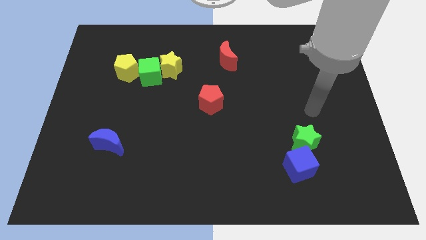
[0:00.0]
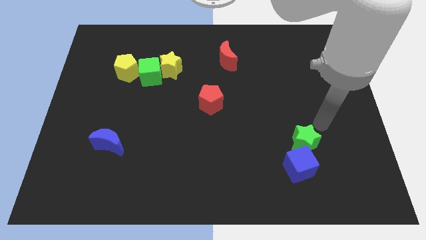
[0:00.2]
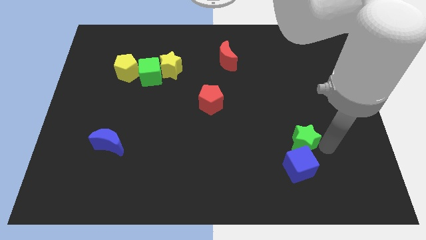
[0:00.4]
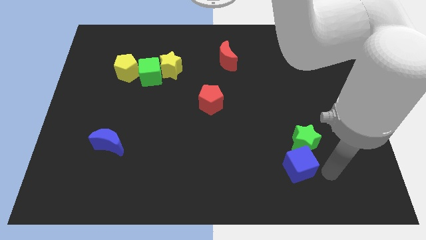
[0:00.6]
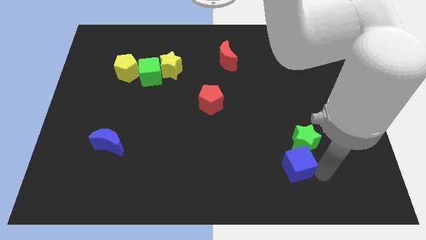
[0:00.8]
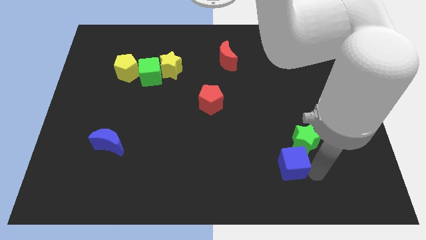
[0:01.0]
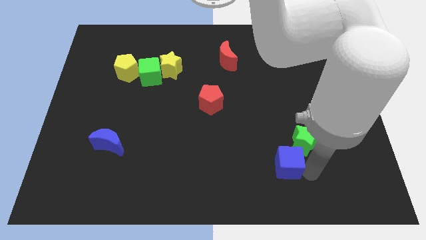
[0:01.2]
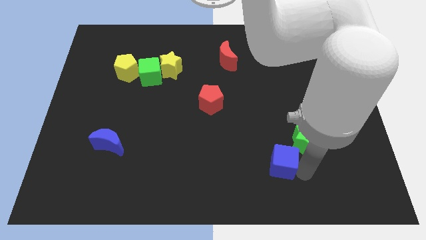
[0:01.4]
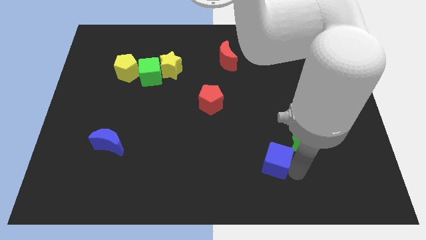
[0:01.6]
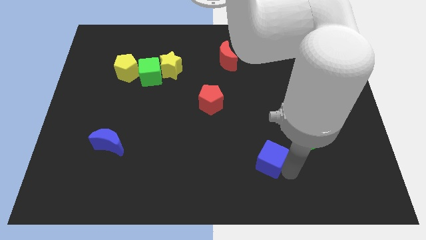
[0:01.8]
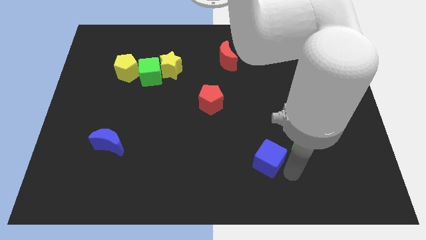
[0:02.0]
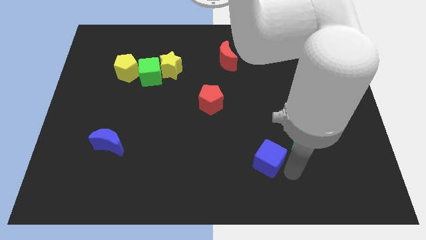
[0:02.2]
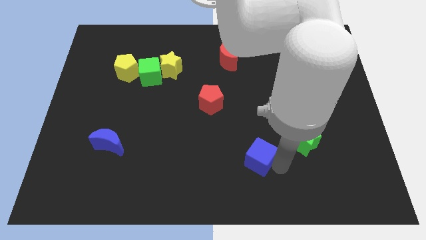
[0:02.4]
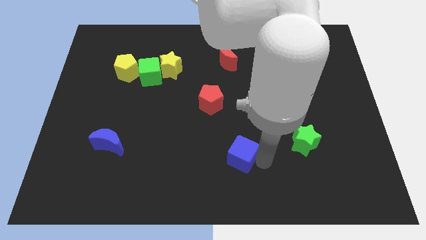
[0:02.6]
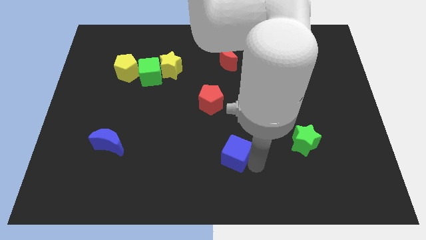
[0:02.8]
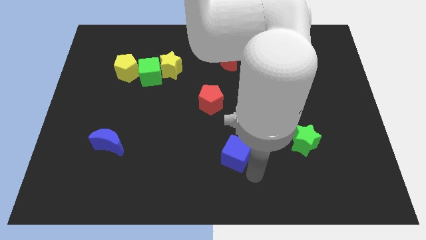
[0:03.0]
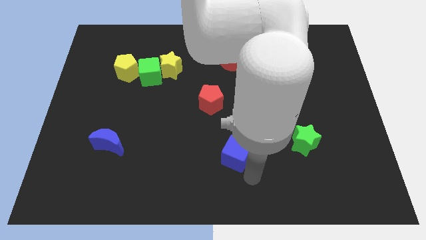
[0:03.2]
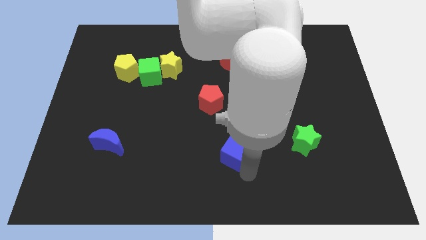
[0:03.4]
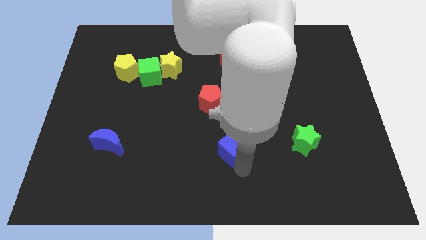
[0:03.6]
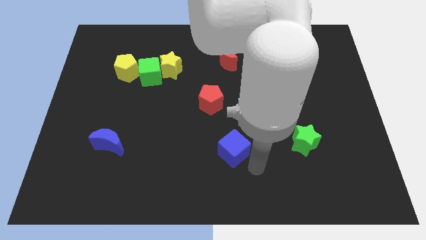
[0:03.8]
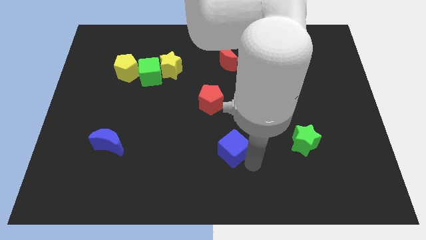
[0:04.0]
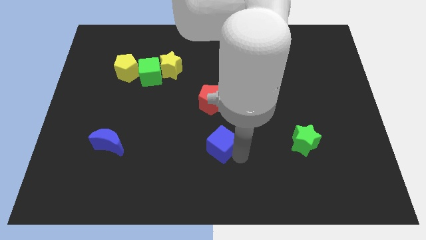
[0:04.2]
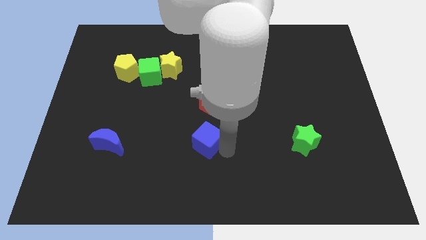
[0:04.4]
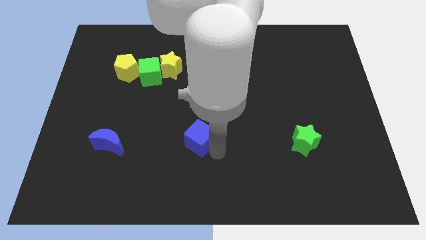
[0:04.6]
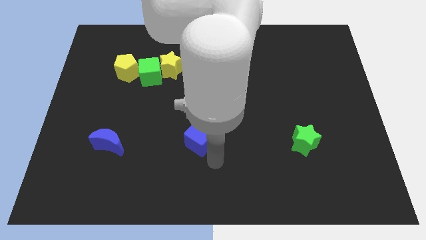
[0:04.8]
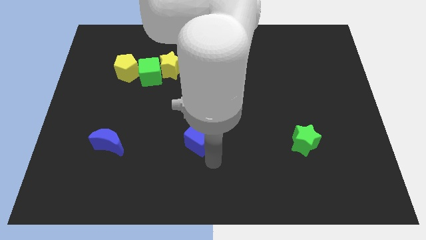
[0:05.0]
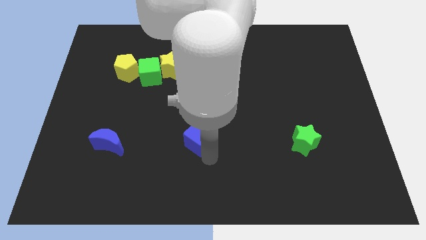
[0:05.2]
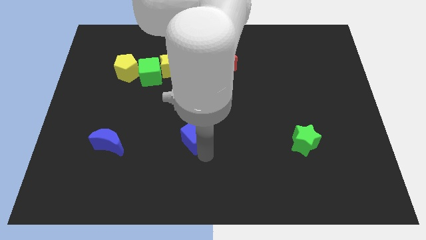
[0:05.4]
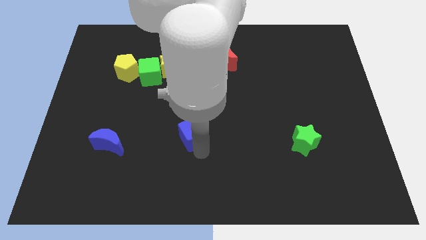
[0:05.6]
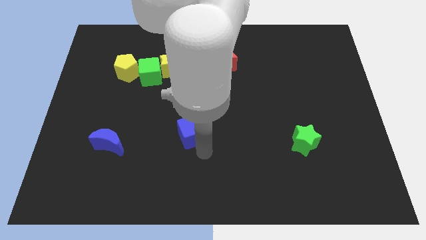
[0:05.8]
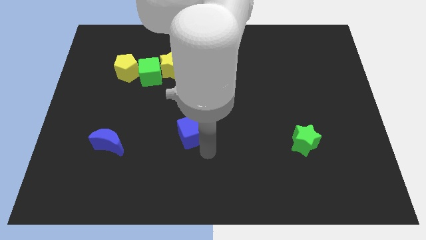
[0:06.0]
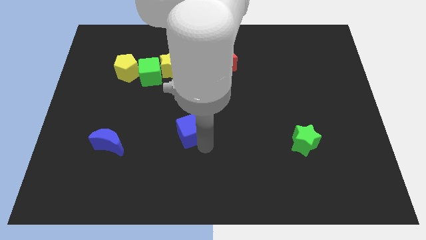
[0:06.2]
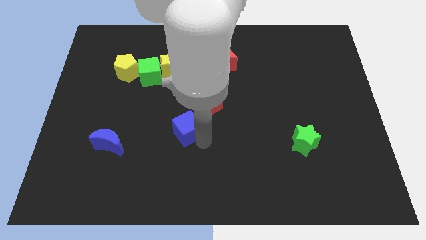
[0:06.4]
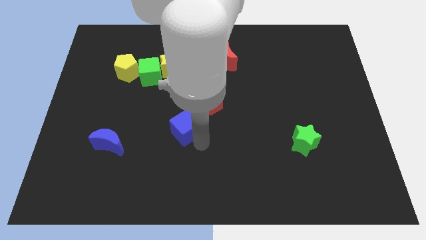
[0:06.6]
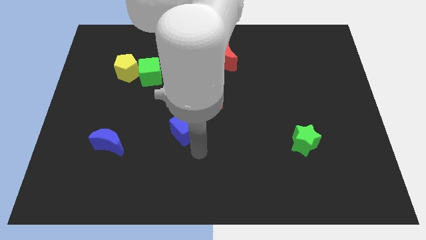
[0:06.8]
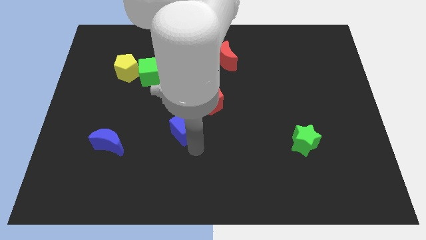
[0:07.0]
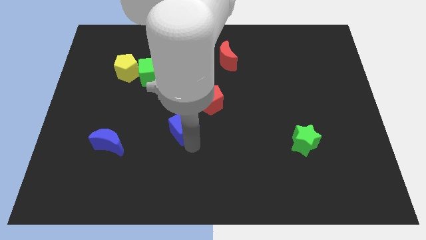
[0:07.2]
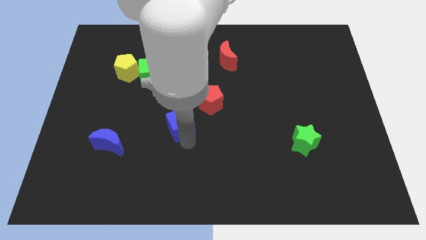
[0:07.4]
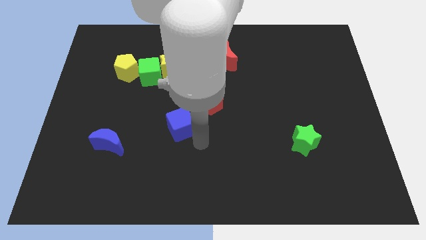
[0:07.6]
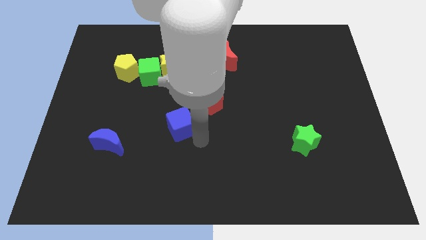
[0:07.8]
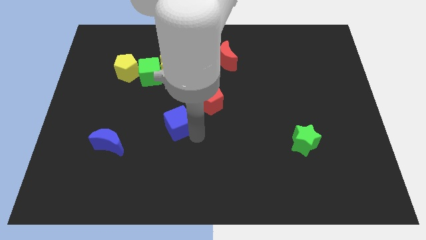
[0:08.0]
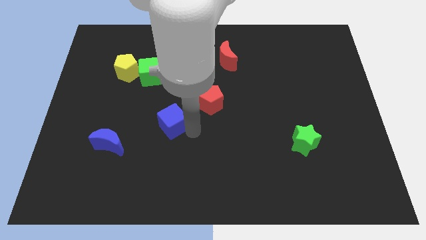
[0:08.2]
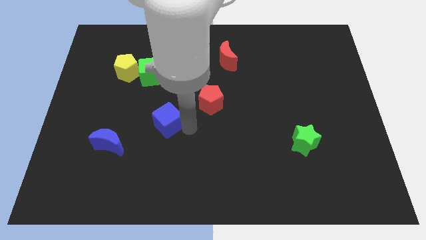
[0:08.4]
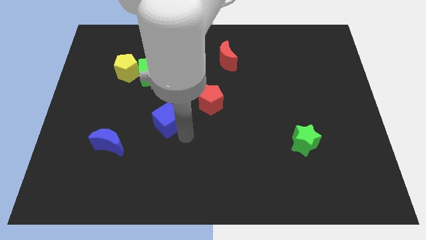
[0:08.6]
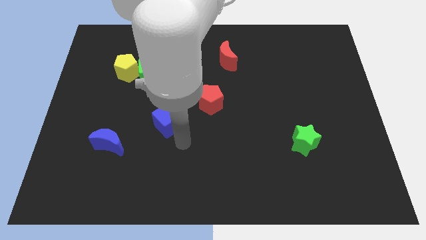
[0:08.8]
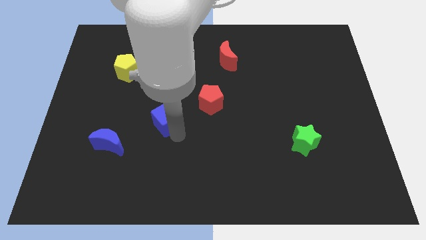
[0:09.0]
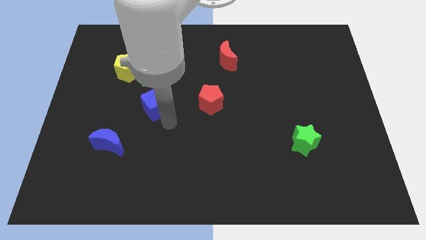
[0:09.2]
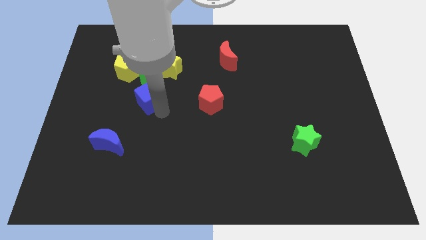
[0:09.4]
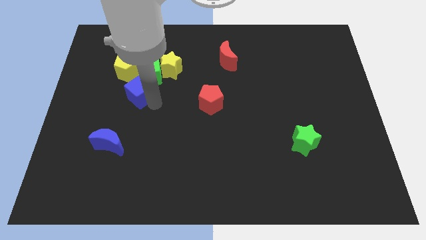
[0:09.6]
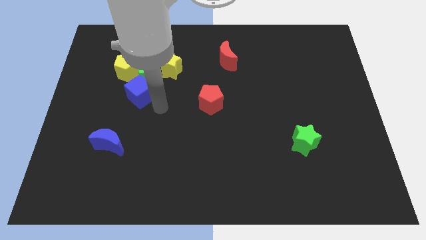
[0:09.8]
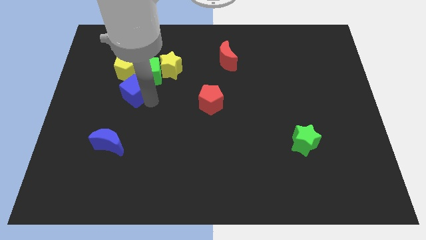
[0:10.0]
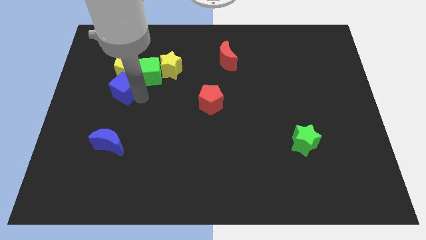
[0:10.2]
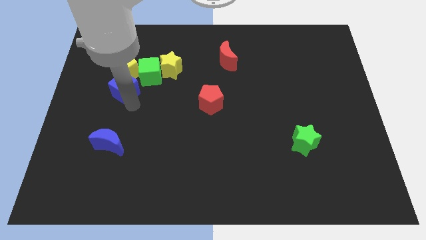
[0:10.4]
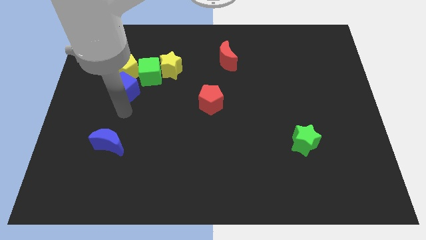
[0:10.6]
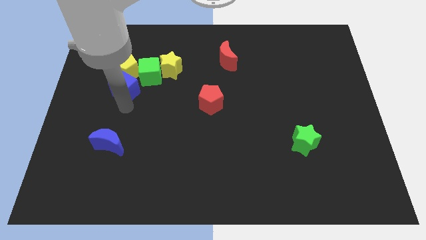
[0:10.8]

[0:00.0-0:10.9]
move the blue cube to the yellow pentagon

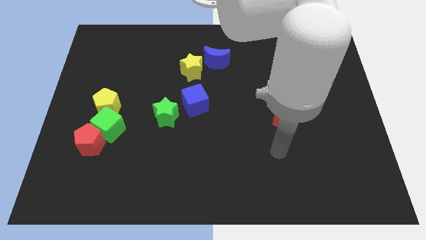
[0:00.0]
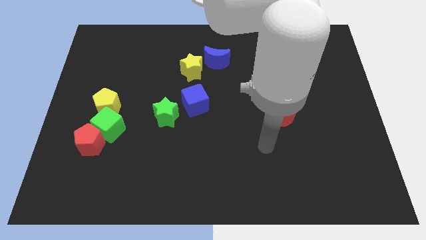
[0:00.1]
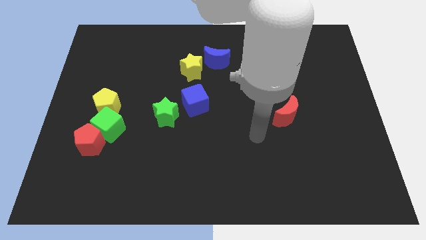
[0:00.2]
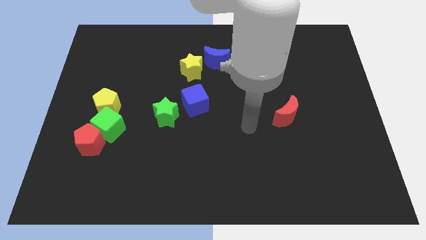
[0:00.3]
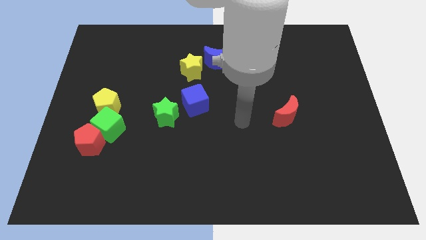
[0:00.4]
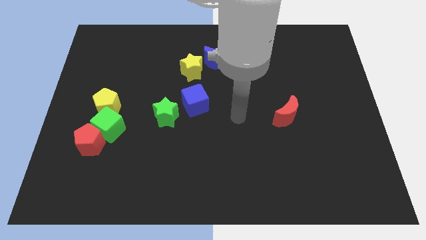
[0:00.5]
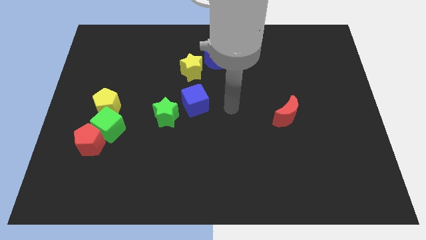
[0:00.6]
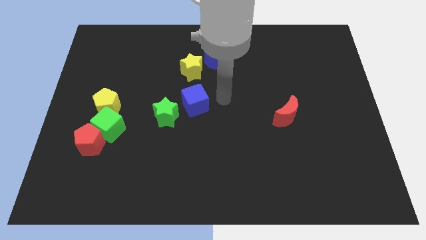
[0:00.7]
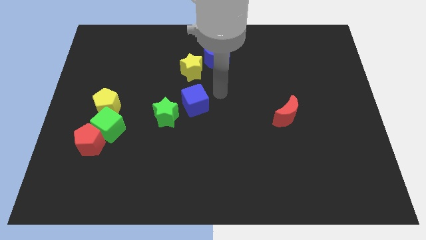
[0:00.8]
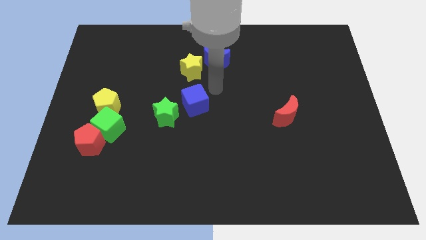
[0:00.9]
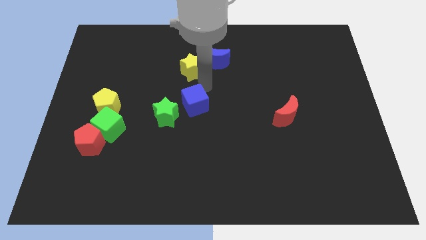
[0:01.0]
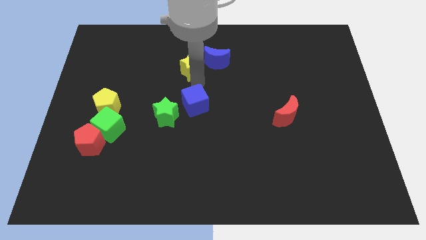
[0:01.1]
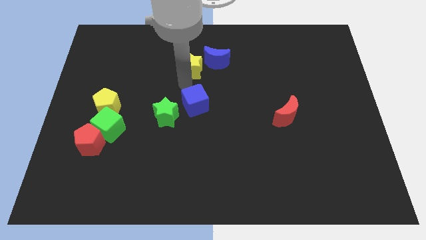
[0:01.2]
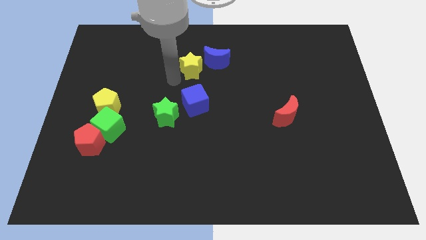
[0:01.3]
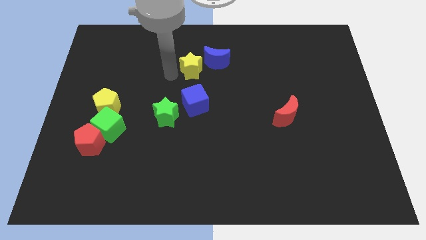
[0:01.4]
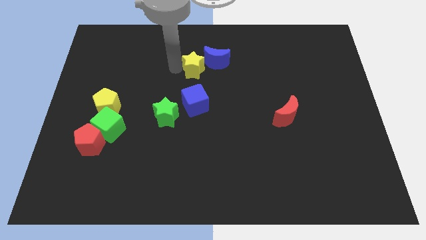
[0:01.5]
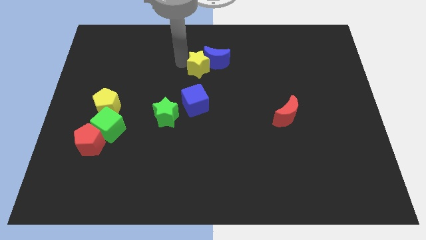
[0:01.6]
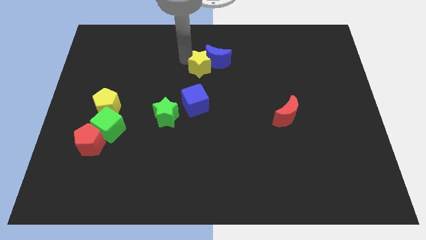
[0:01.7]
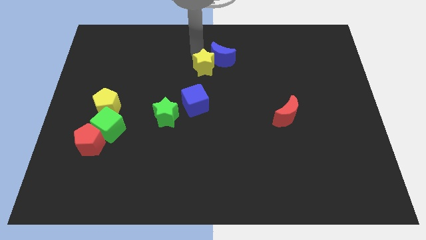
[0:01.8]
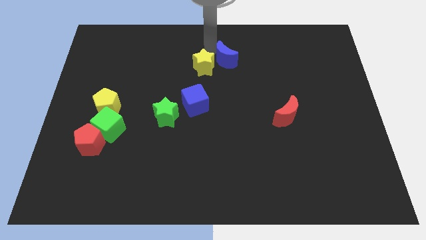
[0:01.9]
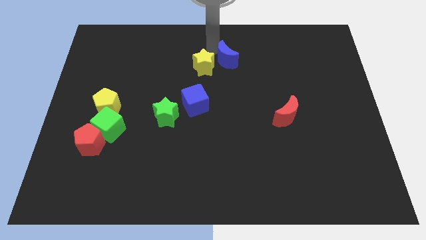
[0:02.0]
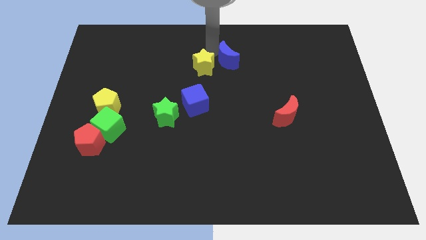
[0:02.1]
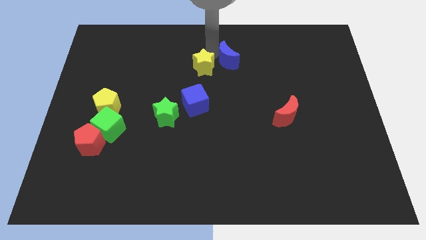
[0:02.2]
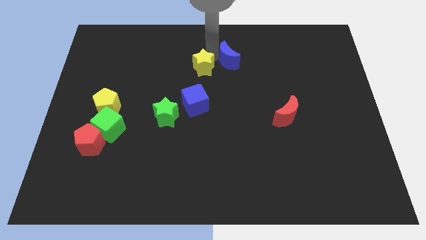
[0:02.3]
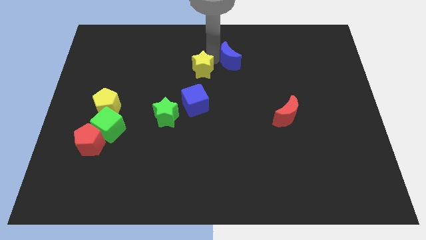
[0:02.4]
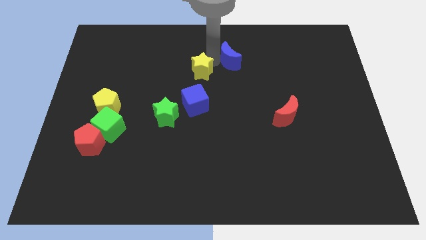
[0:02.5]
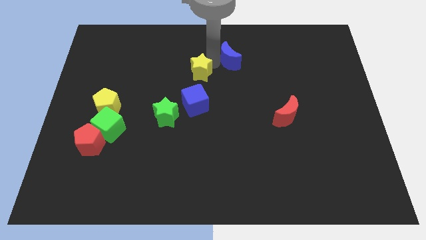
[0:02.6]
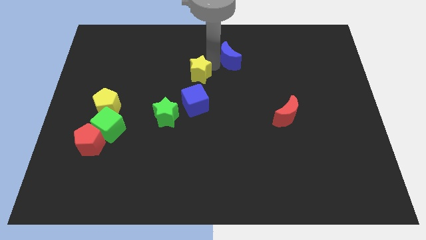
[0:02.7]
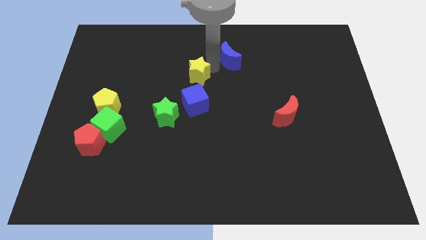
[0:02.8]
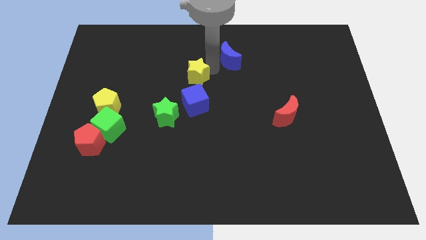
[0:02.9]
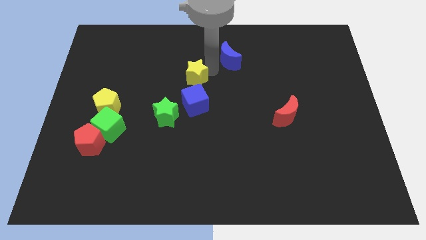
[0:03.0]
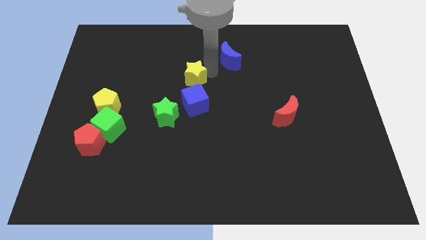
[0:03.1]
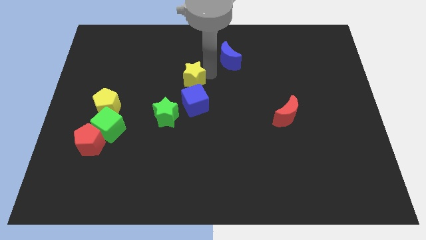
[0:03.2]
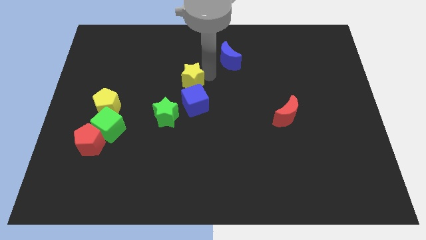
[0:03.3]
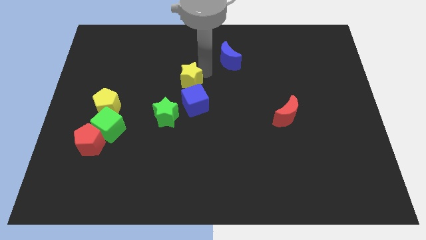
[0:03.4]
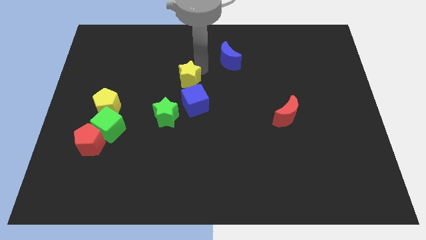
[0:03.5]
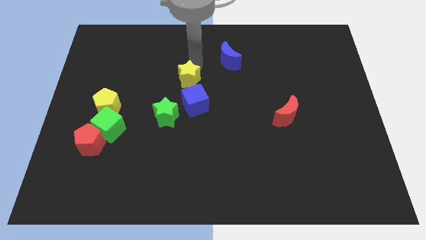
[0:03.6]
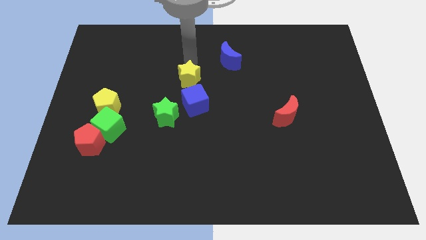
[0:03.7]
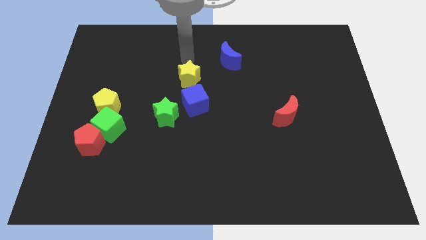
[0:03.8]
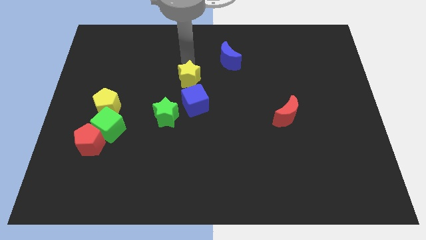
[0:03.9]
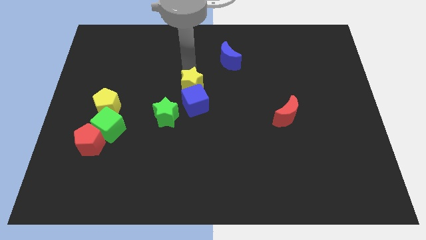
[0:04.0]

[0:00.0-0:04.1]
move the yellow star towards the blue cube
